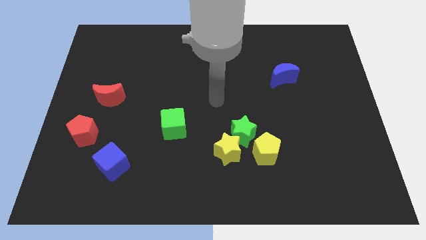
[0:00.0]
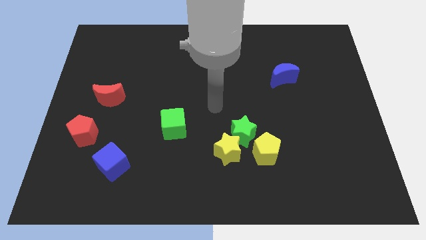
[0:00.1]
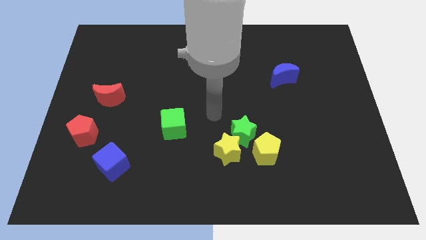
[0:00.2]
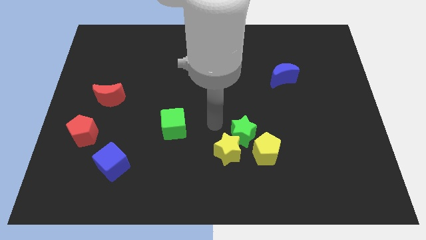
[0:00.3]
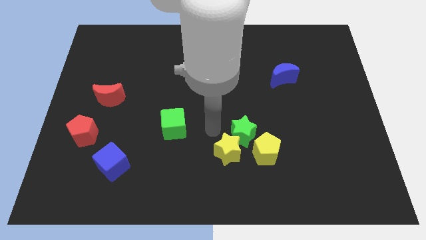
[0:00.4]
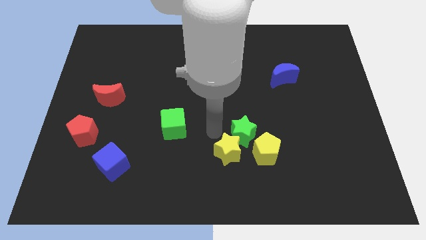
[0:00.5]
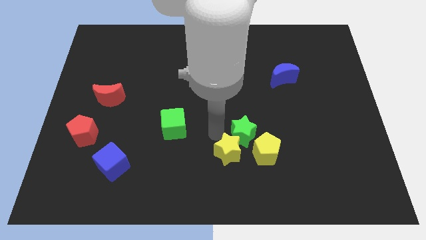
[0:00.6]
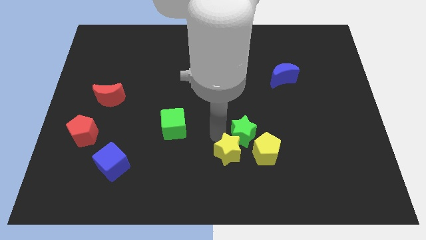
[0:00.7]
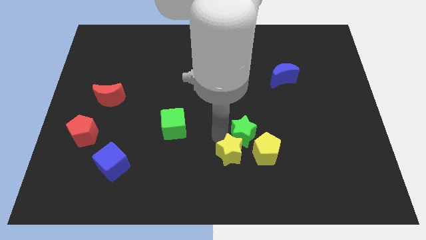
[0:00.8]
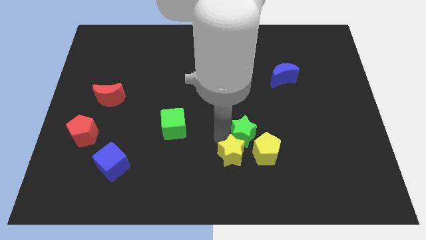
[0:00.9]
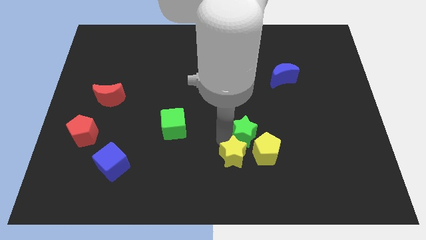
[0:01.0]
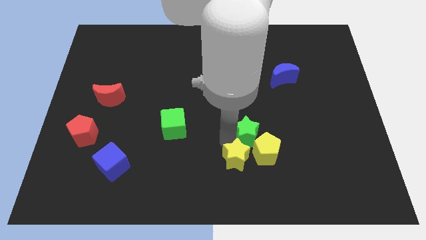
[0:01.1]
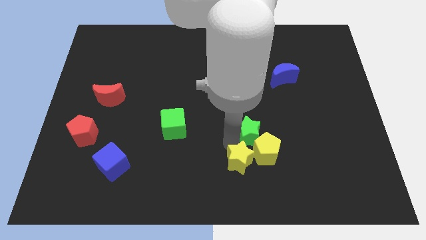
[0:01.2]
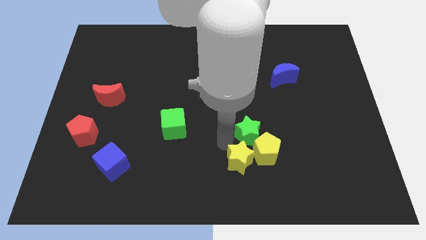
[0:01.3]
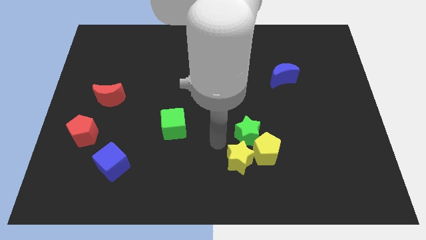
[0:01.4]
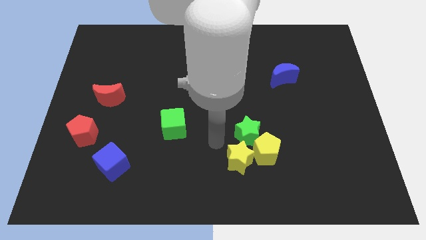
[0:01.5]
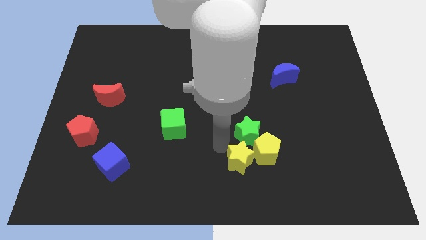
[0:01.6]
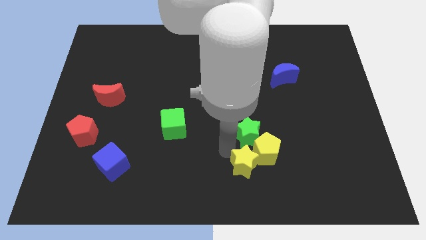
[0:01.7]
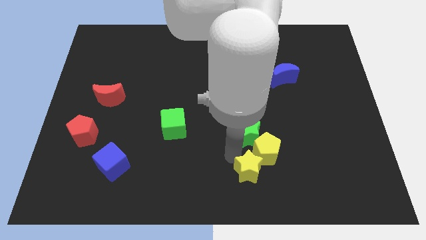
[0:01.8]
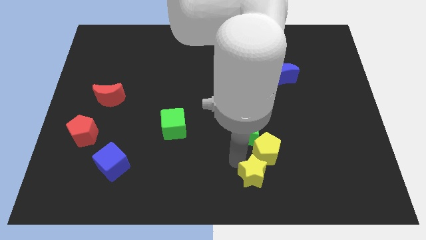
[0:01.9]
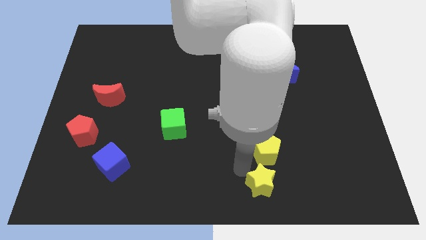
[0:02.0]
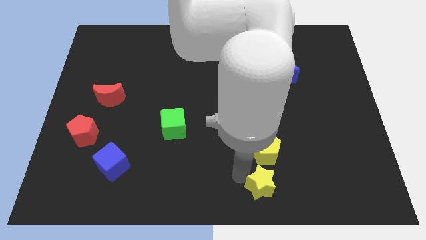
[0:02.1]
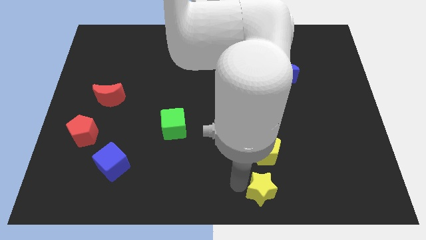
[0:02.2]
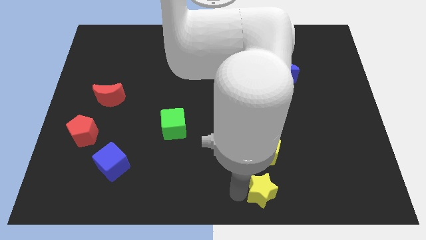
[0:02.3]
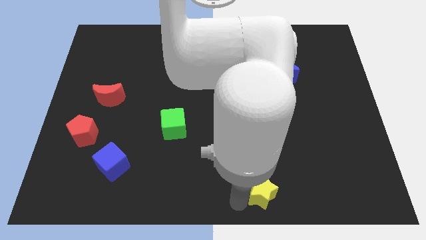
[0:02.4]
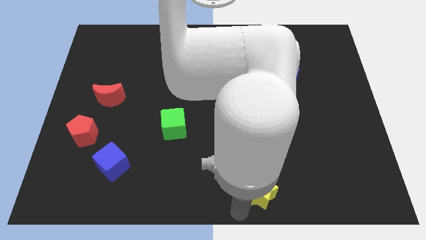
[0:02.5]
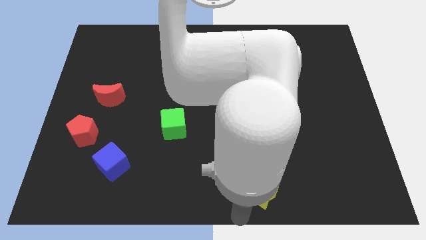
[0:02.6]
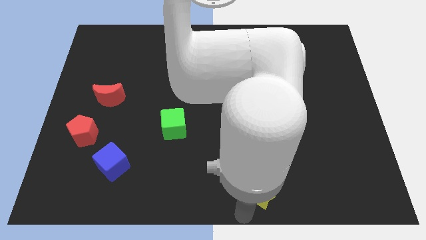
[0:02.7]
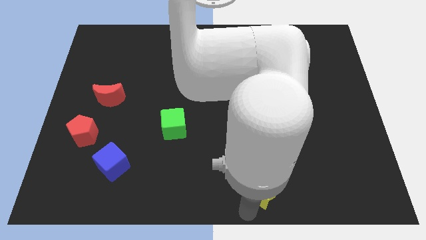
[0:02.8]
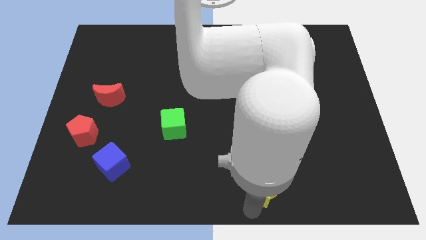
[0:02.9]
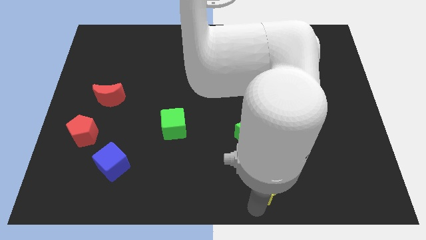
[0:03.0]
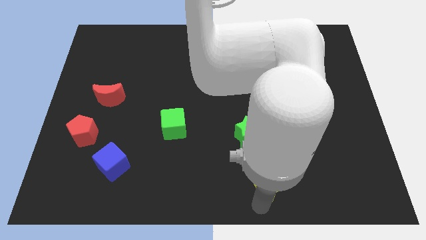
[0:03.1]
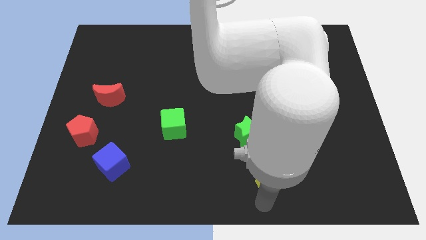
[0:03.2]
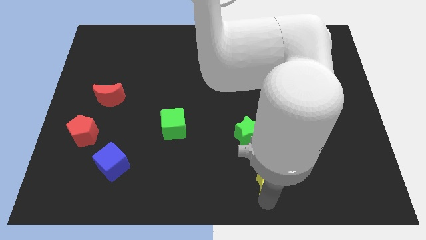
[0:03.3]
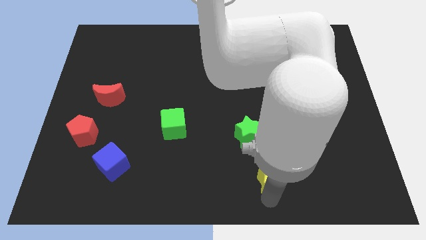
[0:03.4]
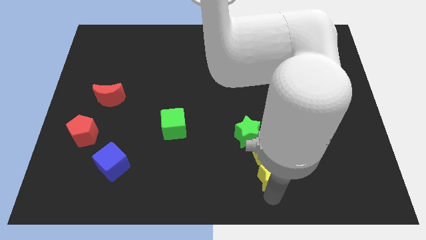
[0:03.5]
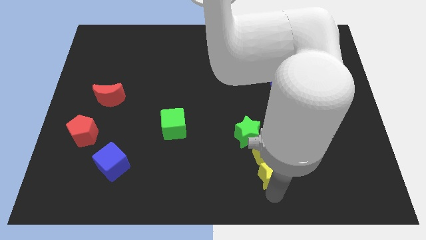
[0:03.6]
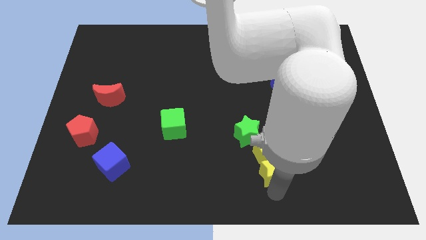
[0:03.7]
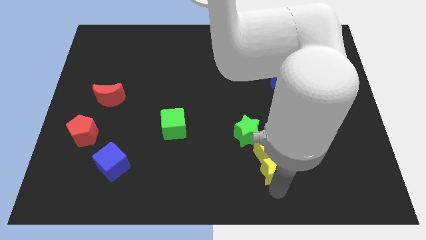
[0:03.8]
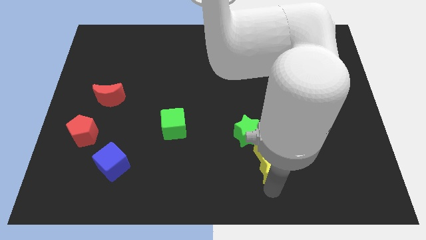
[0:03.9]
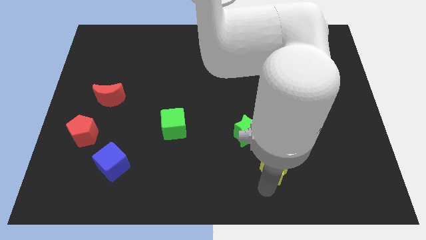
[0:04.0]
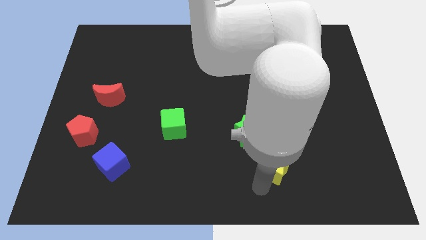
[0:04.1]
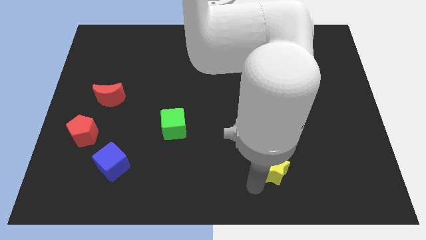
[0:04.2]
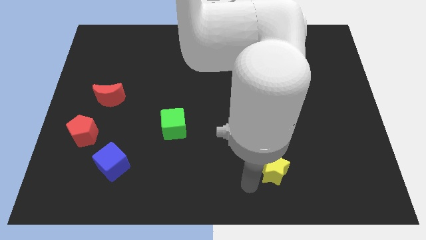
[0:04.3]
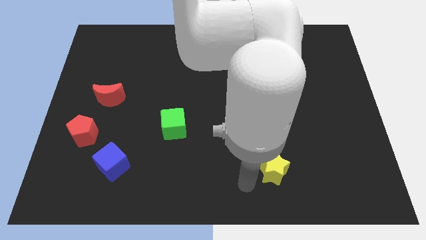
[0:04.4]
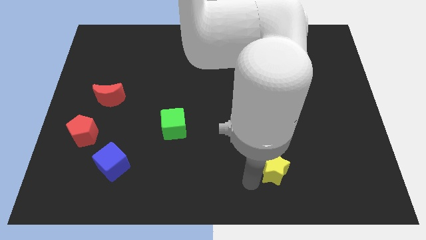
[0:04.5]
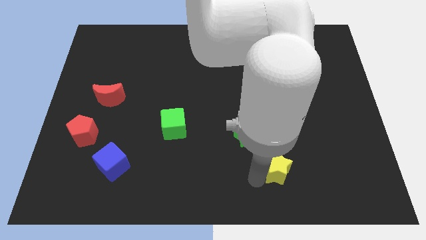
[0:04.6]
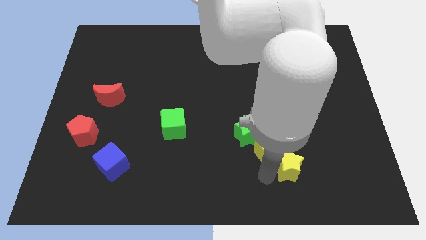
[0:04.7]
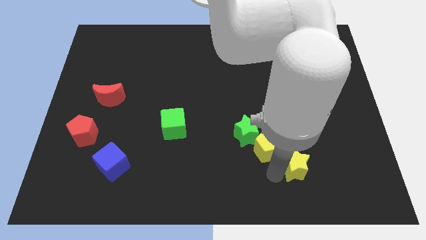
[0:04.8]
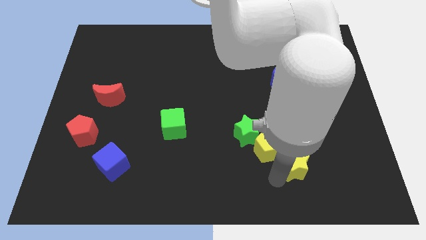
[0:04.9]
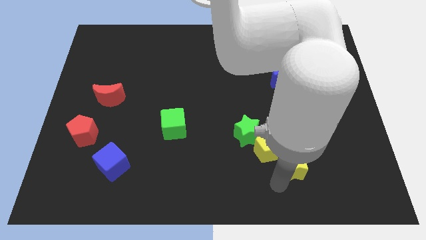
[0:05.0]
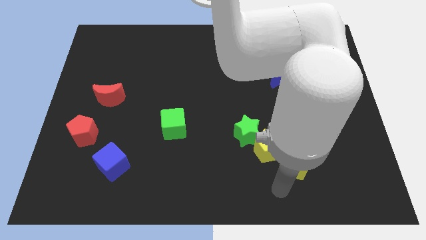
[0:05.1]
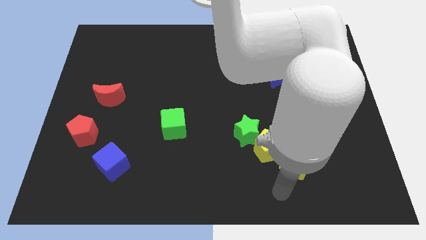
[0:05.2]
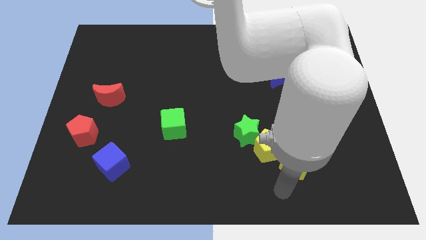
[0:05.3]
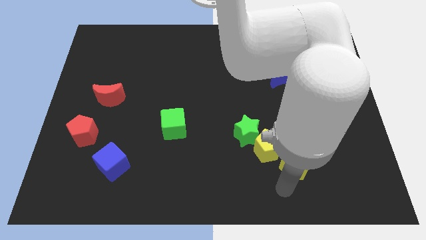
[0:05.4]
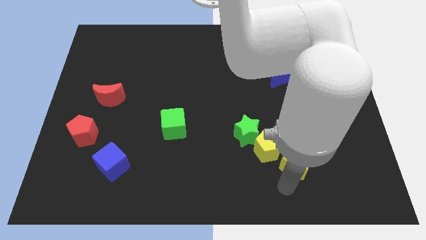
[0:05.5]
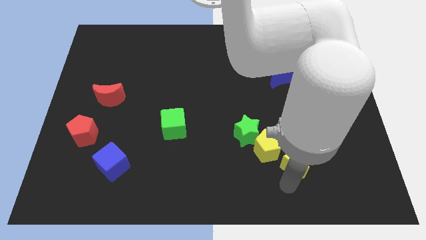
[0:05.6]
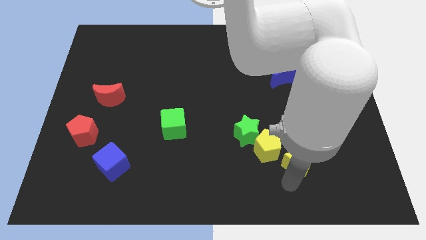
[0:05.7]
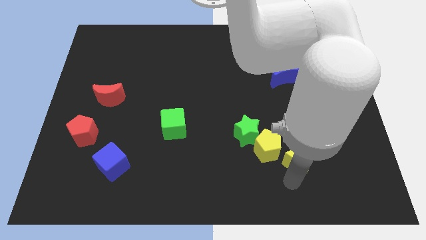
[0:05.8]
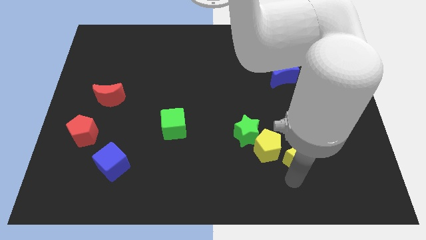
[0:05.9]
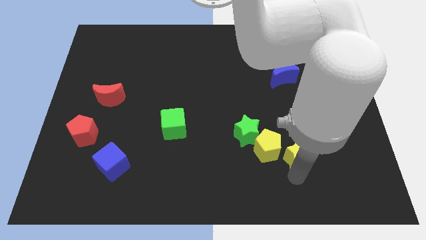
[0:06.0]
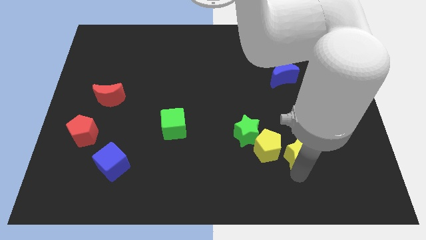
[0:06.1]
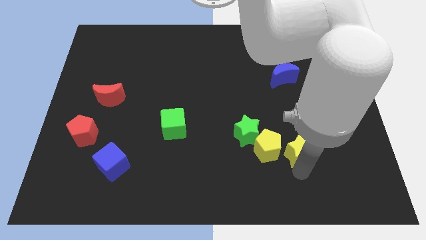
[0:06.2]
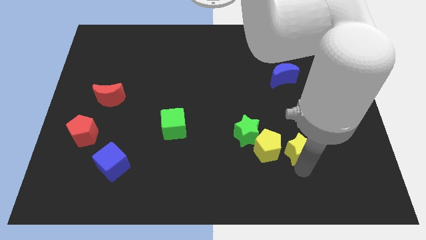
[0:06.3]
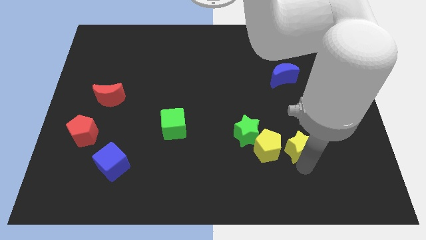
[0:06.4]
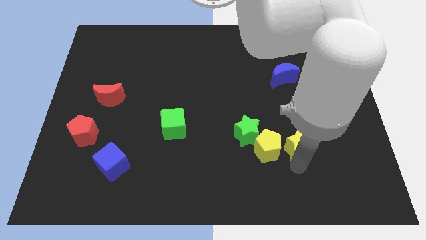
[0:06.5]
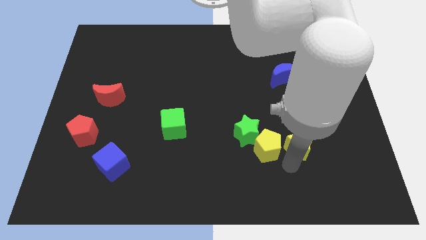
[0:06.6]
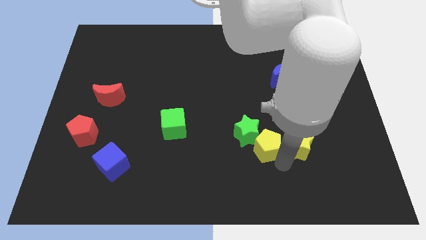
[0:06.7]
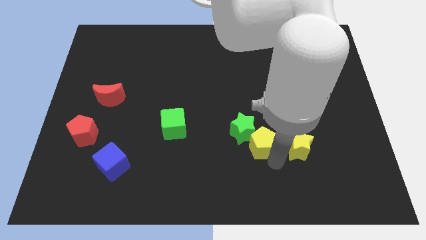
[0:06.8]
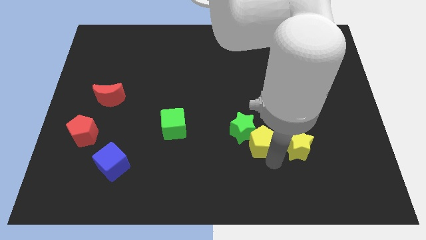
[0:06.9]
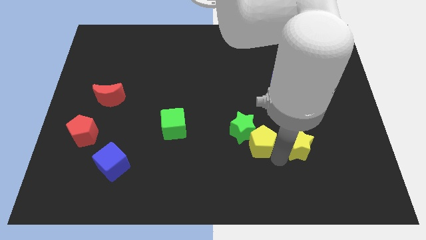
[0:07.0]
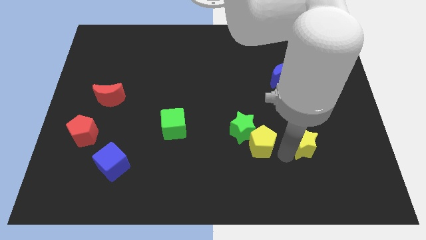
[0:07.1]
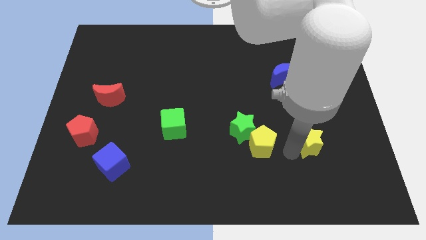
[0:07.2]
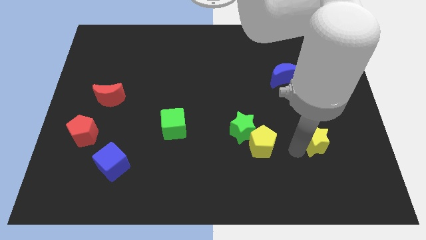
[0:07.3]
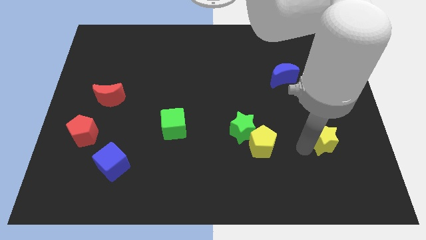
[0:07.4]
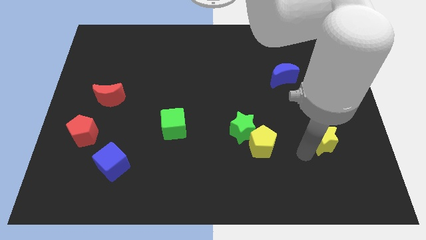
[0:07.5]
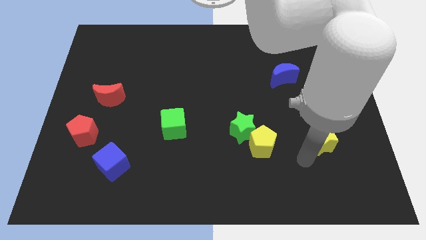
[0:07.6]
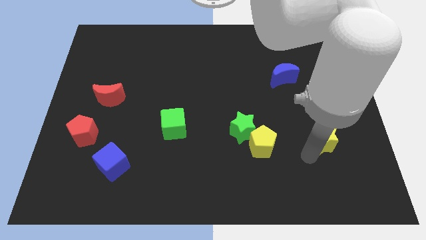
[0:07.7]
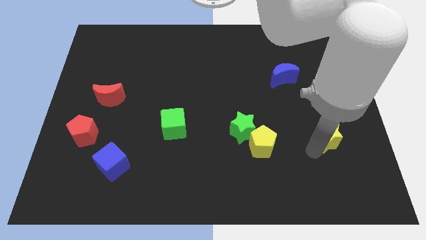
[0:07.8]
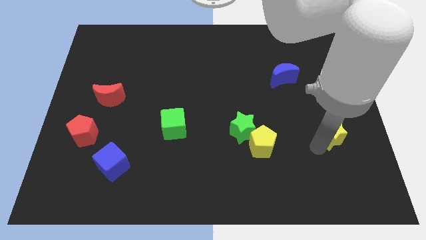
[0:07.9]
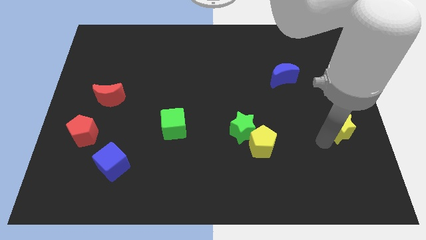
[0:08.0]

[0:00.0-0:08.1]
move the yellow star to the right side
